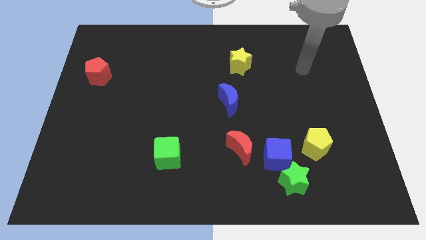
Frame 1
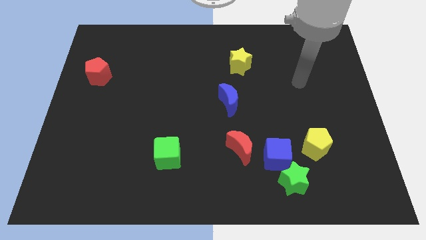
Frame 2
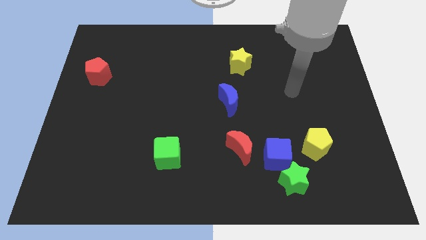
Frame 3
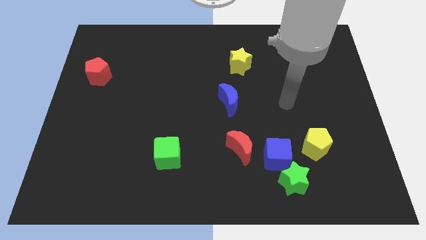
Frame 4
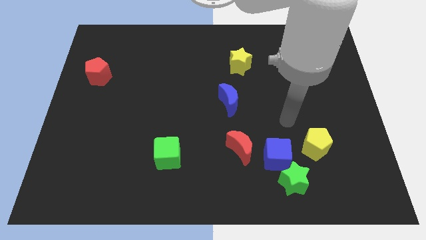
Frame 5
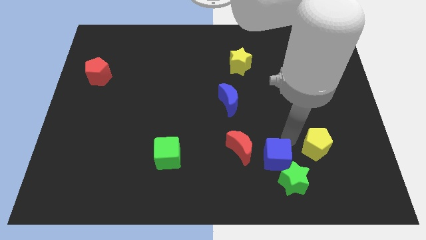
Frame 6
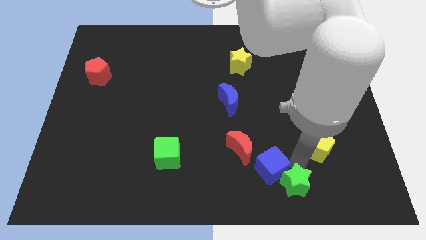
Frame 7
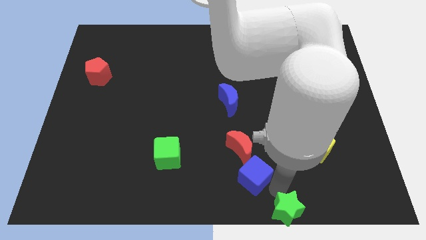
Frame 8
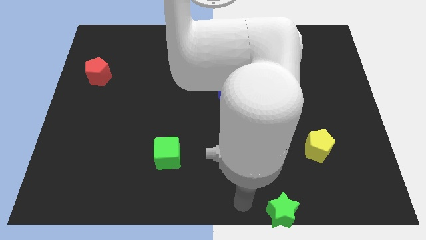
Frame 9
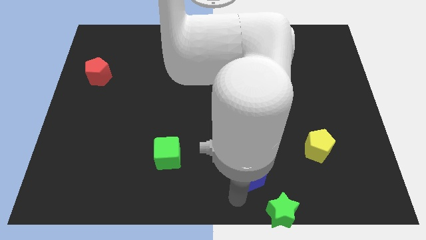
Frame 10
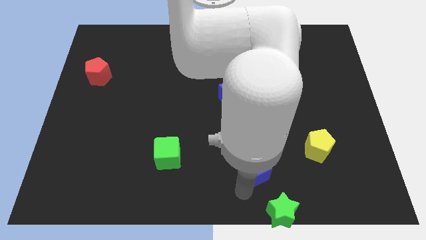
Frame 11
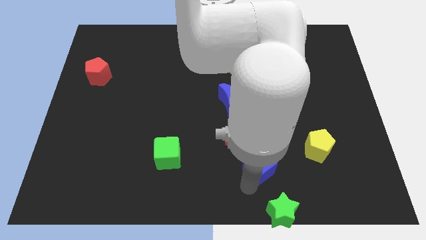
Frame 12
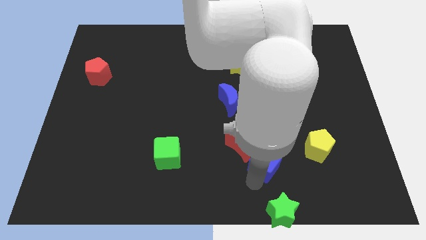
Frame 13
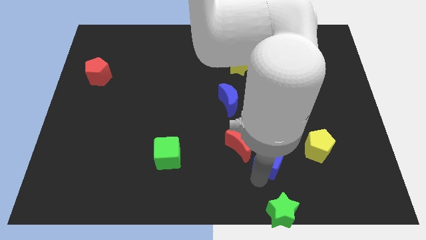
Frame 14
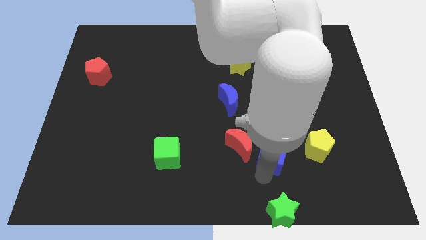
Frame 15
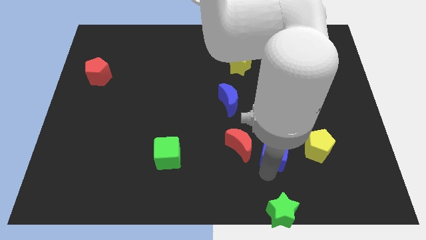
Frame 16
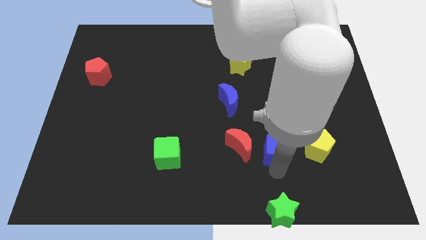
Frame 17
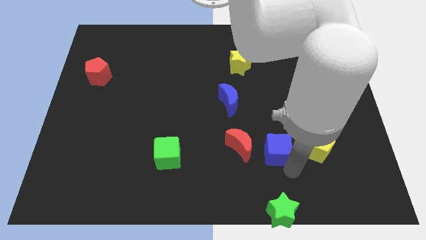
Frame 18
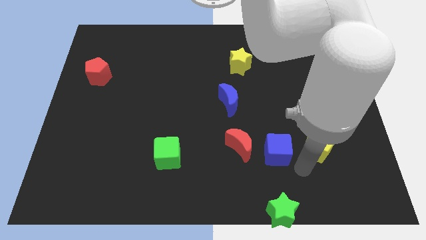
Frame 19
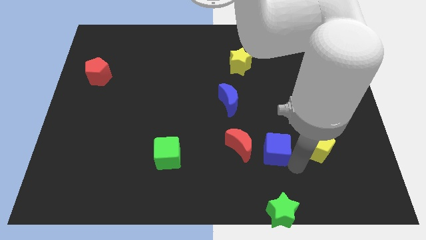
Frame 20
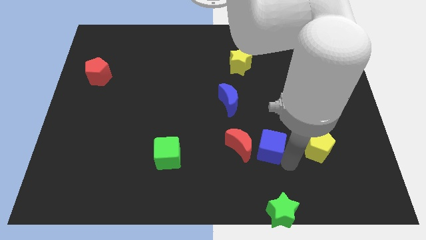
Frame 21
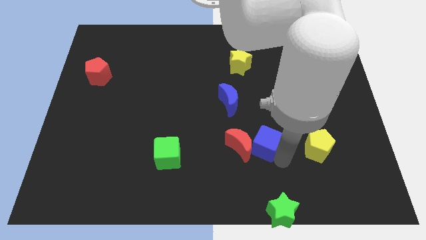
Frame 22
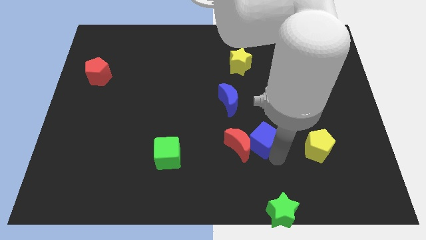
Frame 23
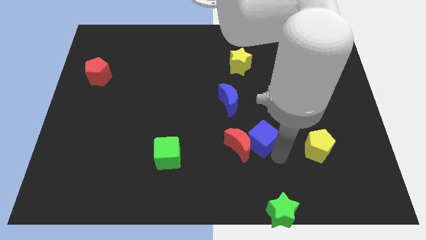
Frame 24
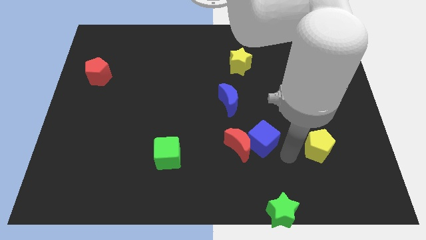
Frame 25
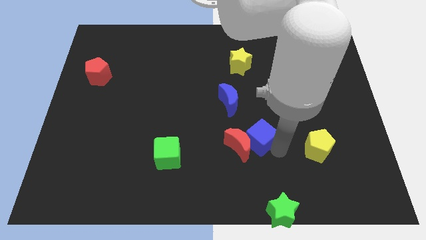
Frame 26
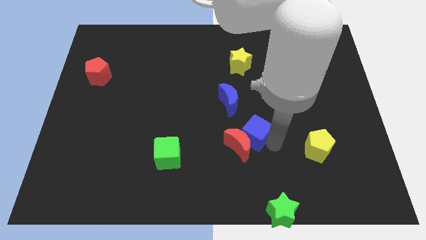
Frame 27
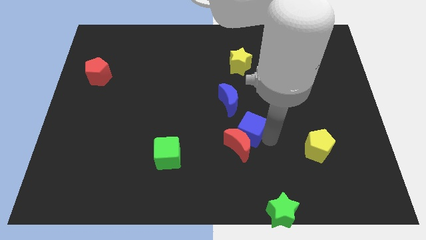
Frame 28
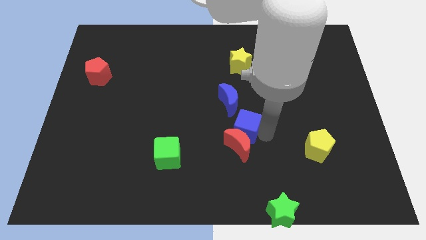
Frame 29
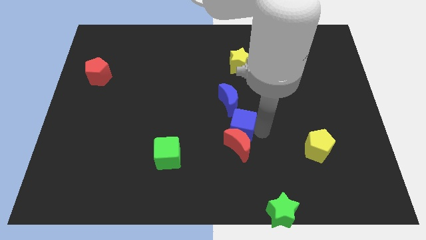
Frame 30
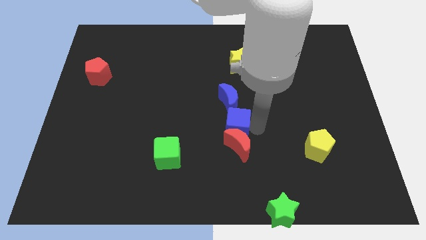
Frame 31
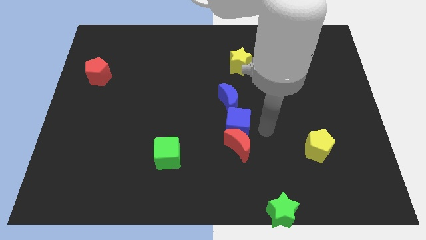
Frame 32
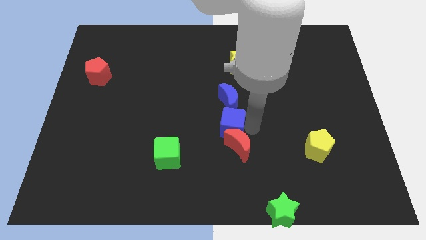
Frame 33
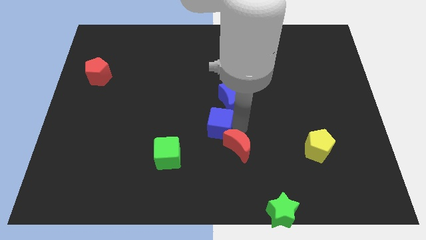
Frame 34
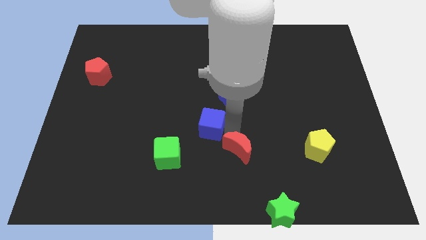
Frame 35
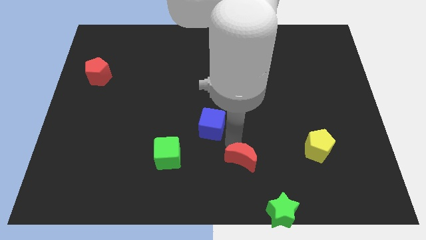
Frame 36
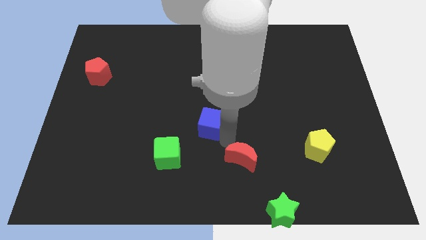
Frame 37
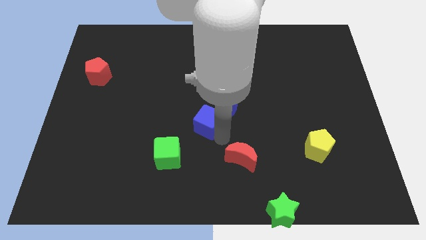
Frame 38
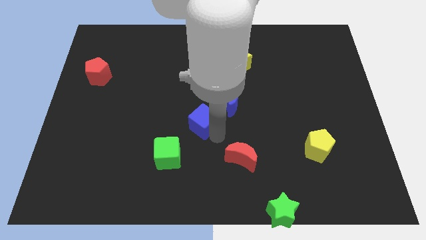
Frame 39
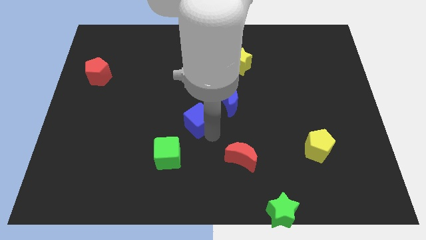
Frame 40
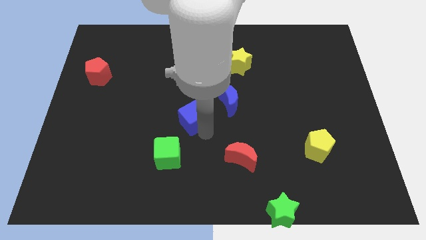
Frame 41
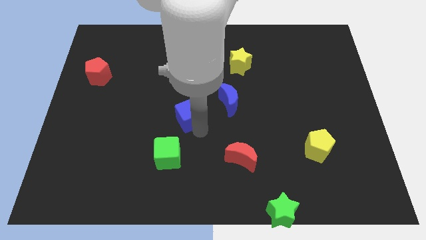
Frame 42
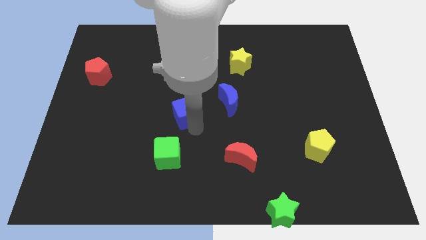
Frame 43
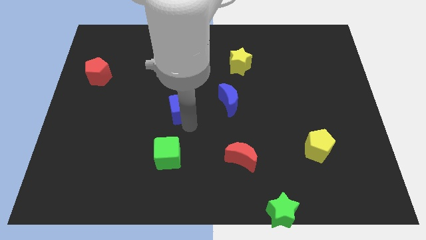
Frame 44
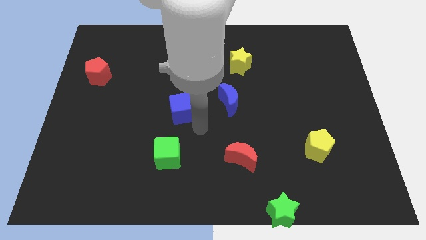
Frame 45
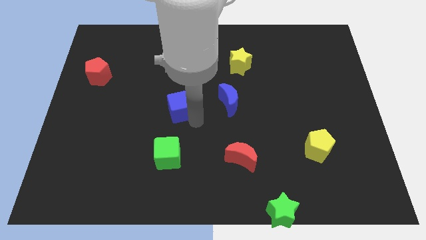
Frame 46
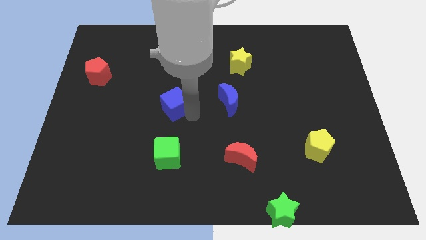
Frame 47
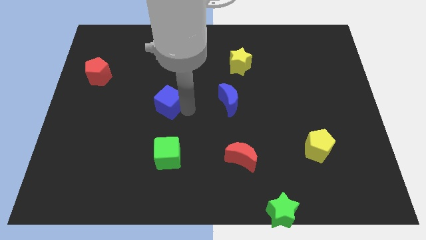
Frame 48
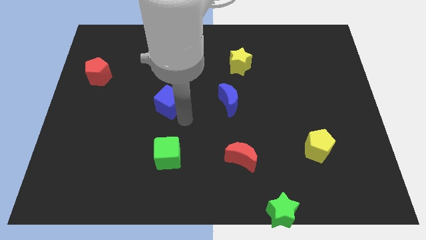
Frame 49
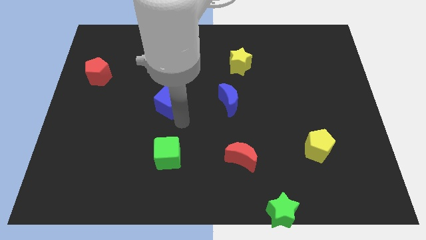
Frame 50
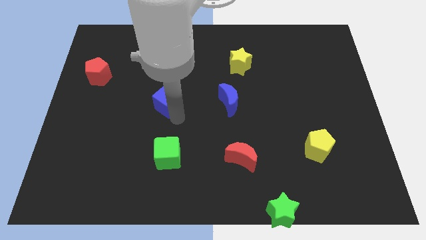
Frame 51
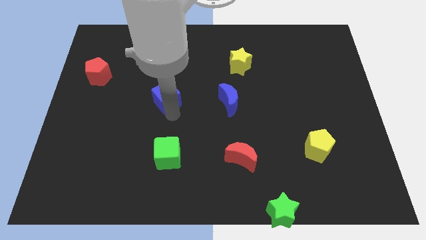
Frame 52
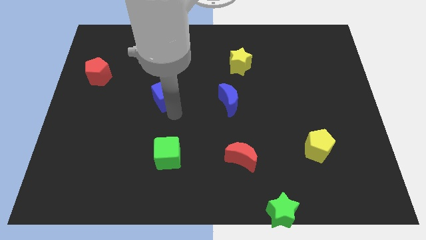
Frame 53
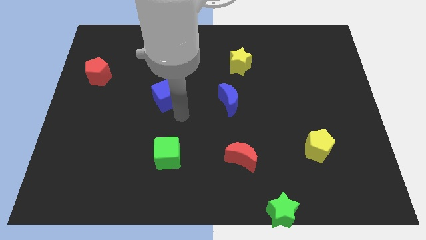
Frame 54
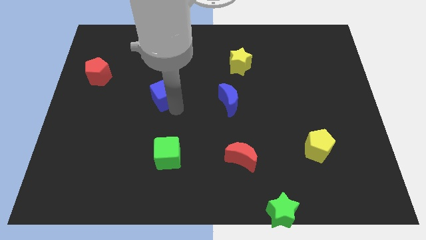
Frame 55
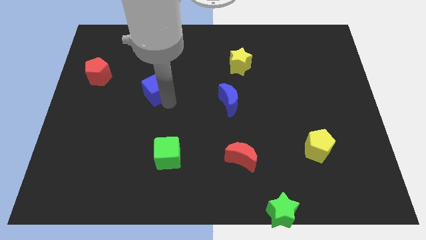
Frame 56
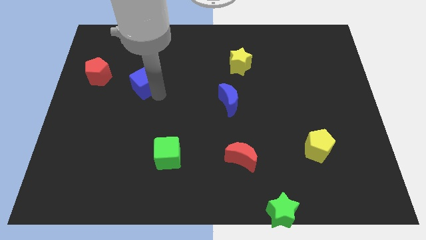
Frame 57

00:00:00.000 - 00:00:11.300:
put the blue cube right of the red pentagon

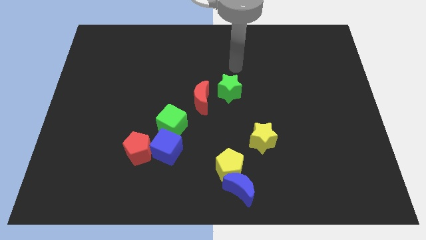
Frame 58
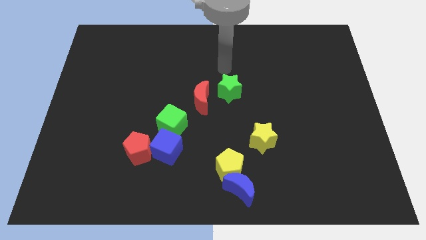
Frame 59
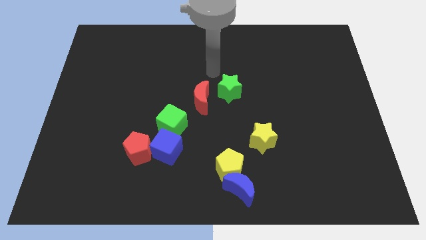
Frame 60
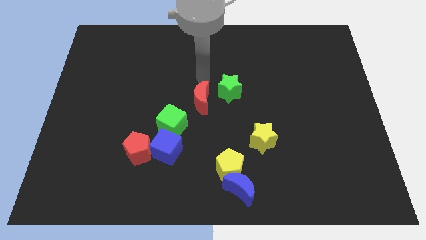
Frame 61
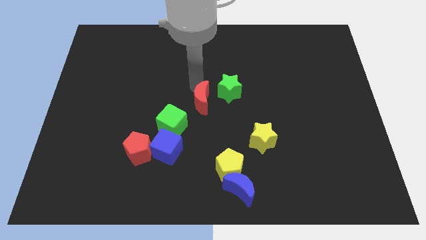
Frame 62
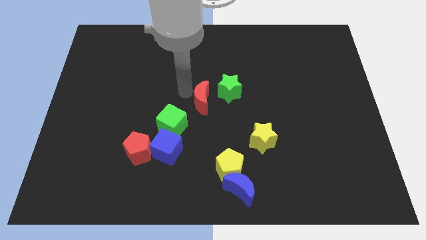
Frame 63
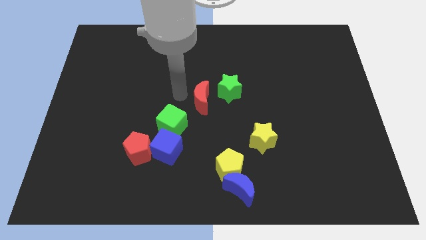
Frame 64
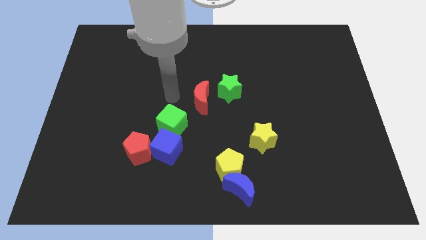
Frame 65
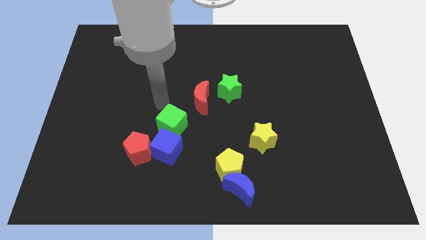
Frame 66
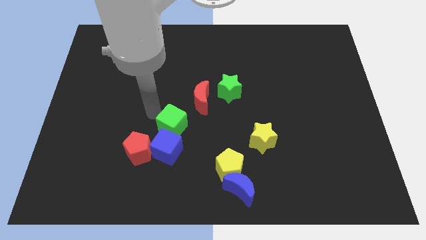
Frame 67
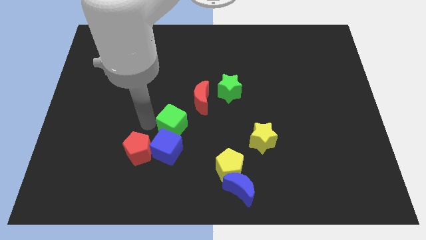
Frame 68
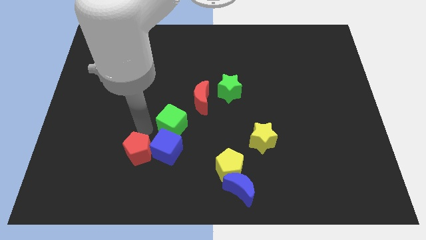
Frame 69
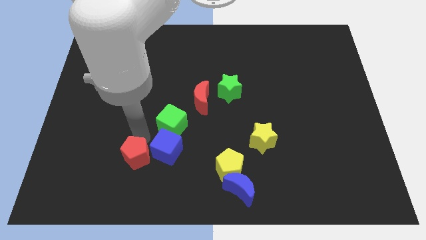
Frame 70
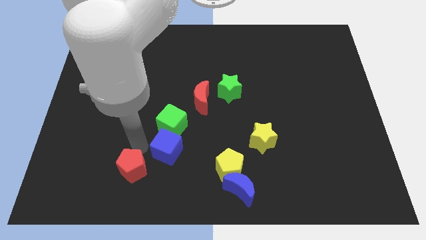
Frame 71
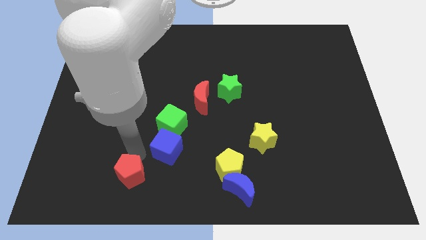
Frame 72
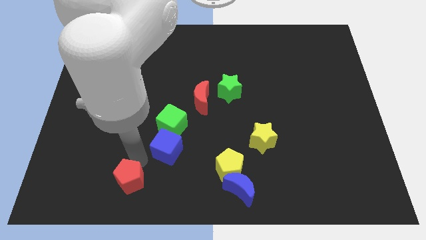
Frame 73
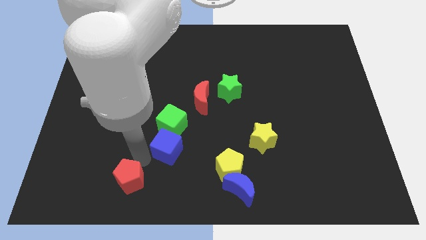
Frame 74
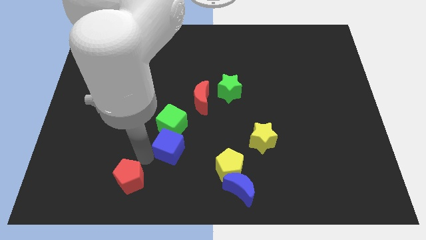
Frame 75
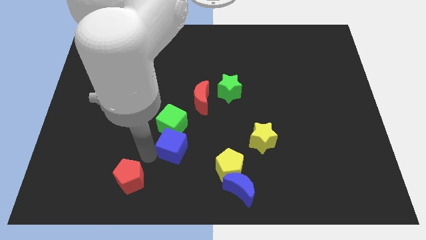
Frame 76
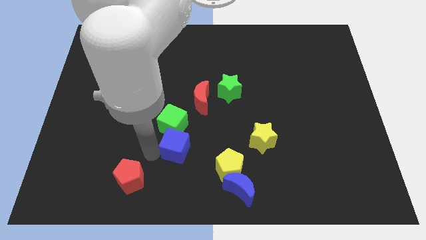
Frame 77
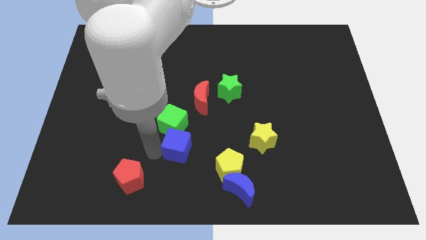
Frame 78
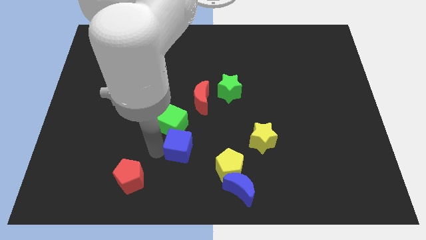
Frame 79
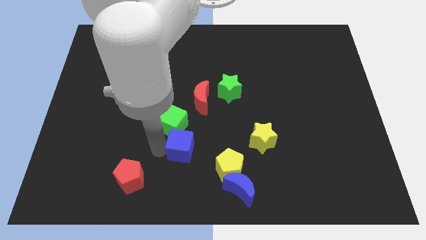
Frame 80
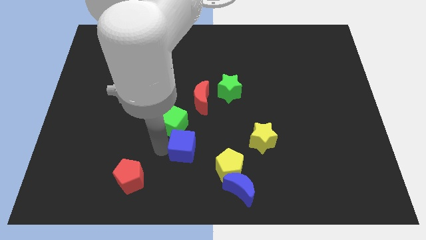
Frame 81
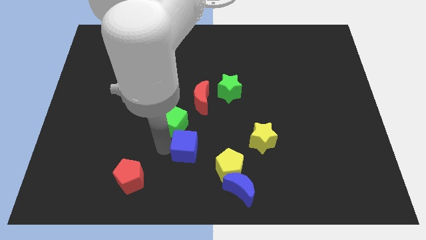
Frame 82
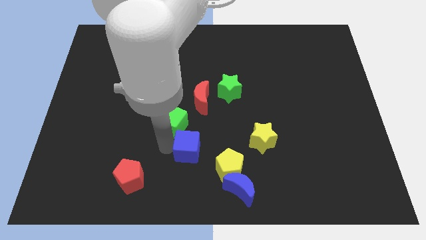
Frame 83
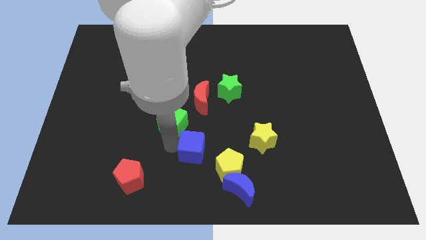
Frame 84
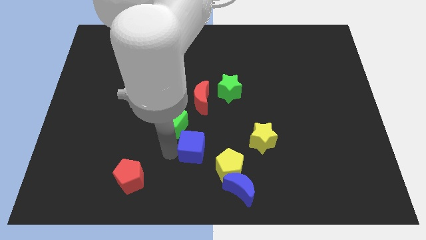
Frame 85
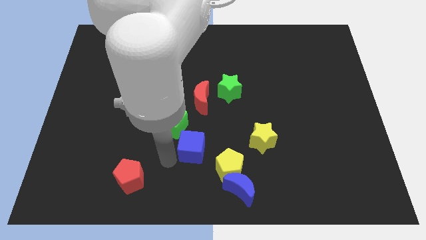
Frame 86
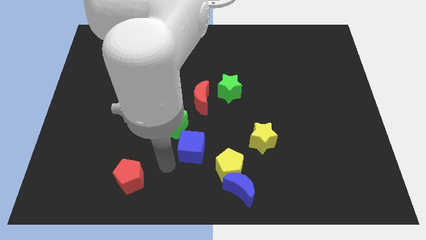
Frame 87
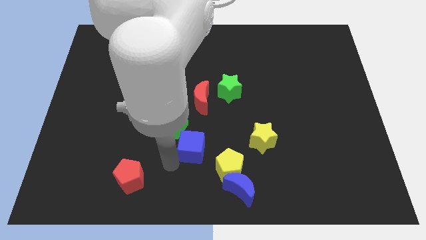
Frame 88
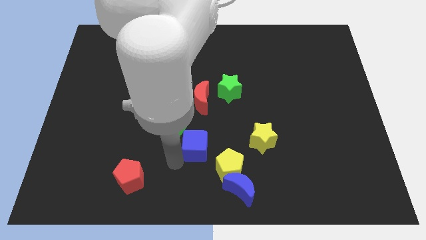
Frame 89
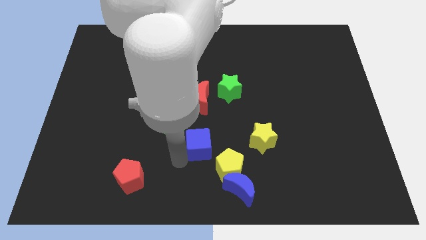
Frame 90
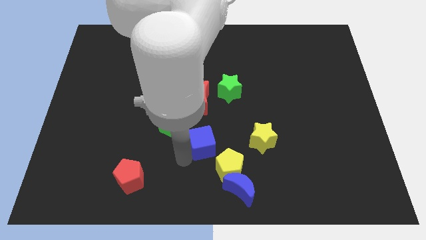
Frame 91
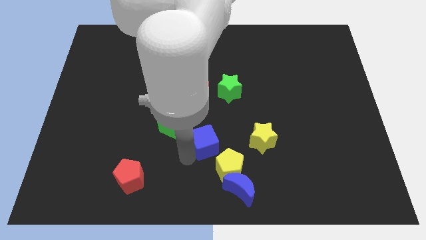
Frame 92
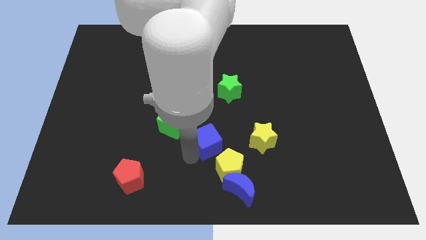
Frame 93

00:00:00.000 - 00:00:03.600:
put the blue cube above the yellow pentagon
